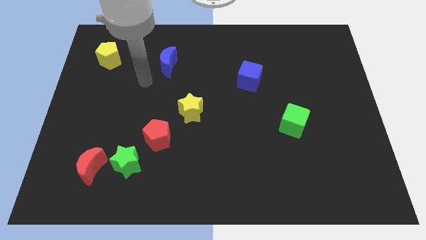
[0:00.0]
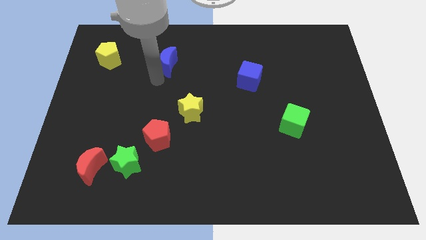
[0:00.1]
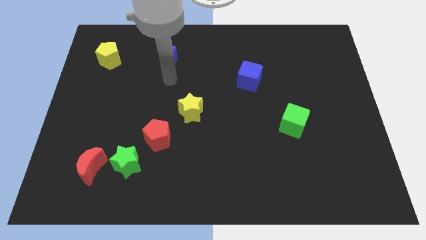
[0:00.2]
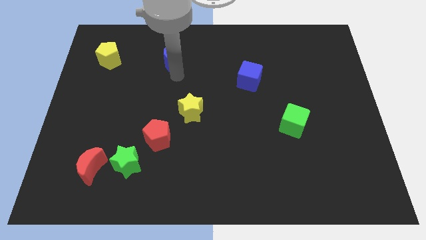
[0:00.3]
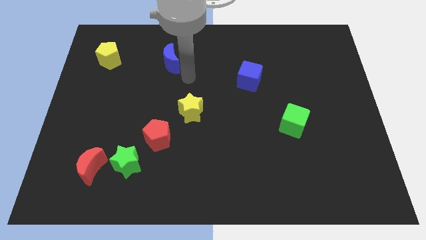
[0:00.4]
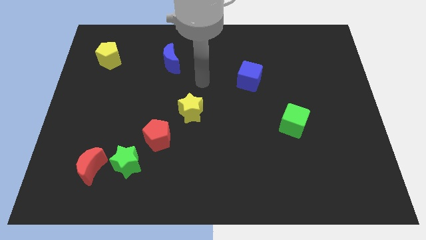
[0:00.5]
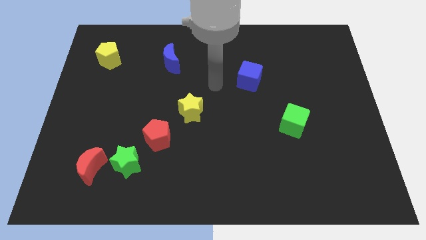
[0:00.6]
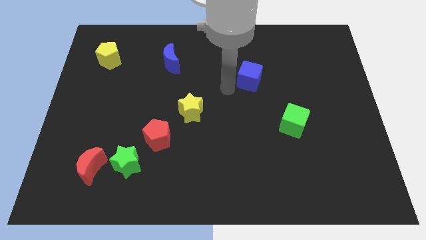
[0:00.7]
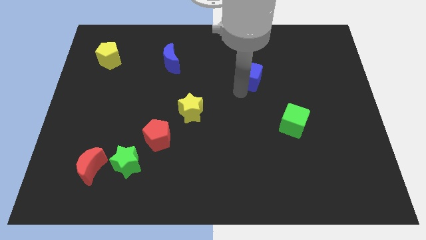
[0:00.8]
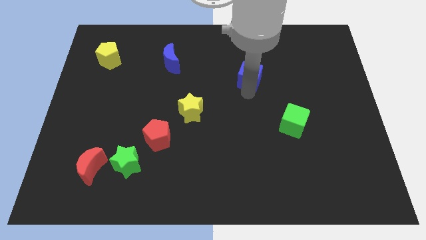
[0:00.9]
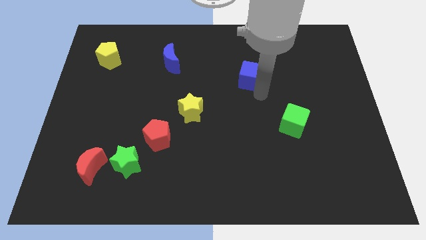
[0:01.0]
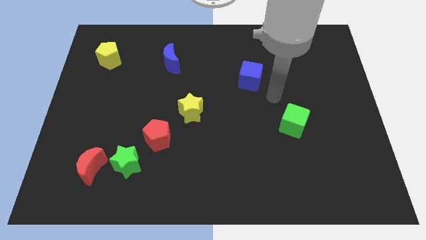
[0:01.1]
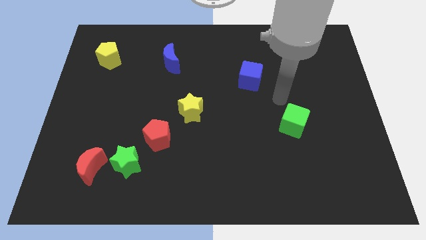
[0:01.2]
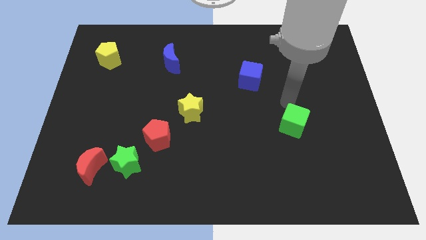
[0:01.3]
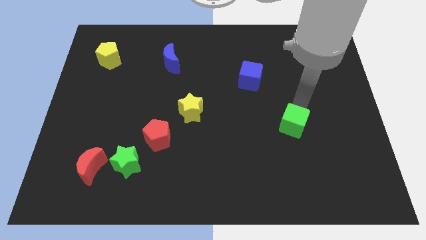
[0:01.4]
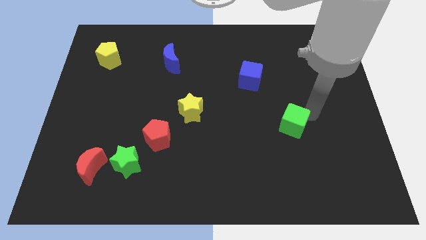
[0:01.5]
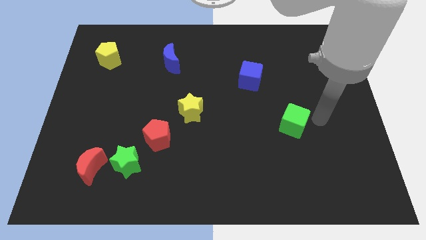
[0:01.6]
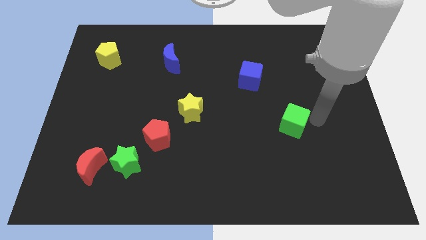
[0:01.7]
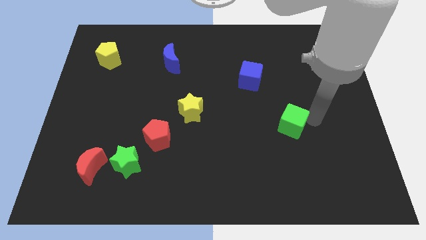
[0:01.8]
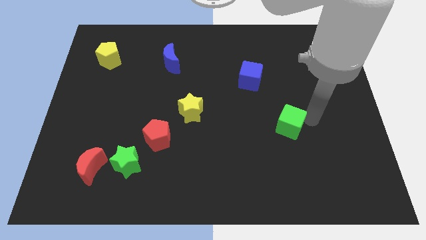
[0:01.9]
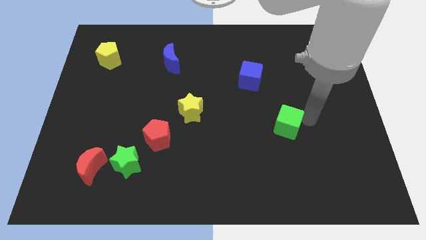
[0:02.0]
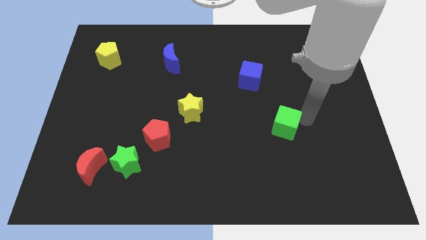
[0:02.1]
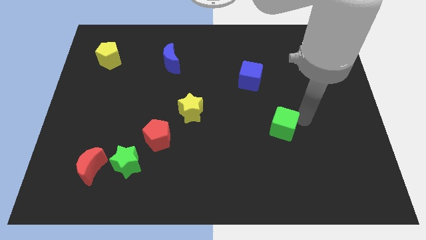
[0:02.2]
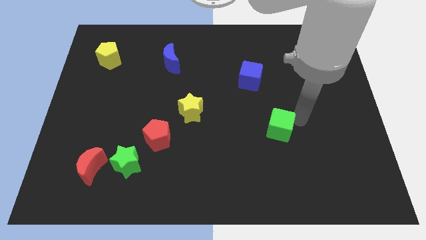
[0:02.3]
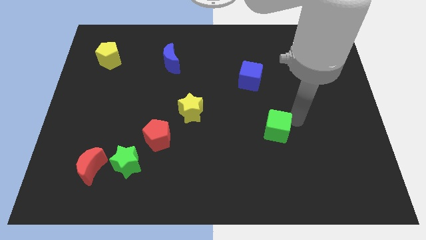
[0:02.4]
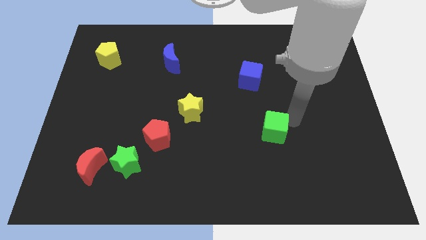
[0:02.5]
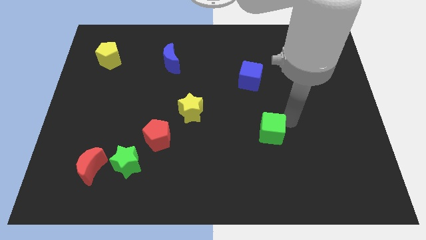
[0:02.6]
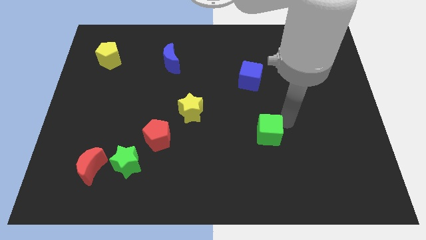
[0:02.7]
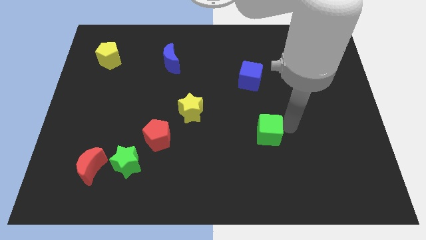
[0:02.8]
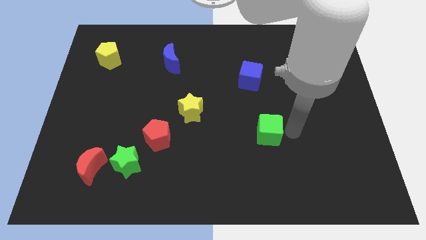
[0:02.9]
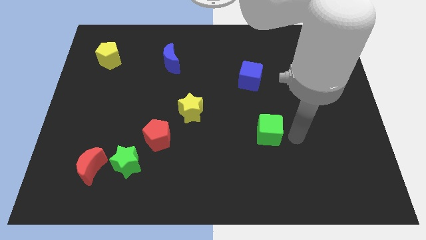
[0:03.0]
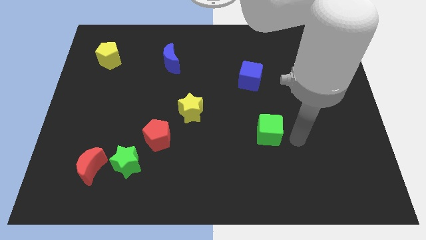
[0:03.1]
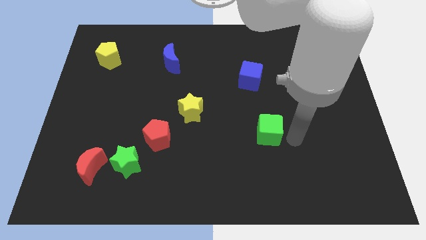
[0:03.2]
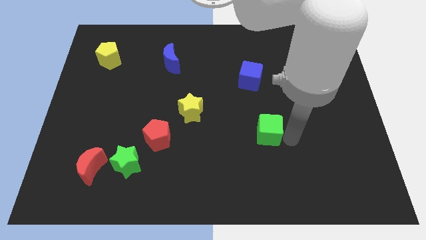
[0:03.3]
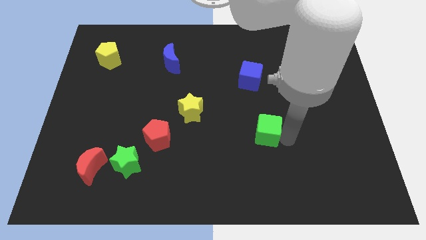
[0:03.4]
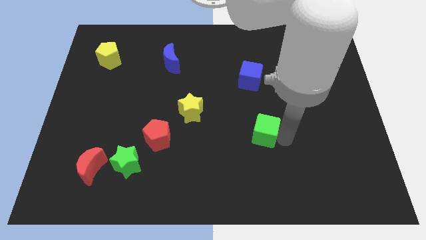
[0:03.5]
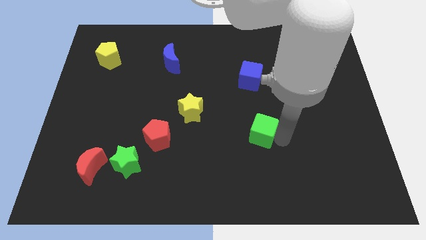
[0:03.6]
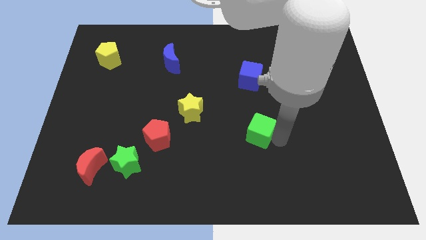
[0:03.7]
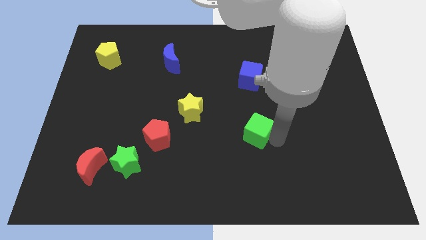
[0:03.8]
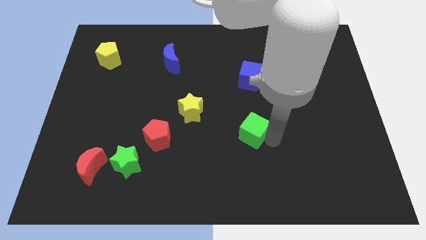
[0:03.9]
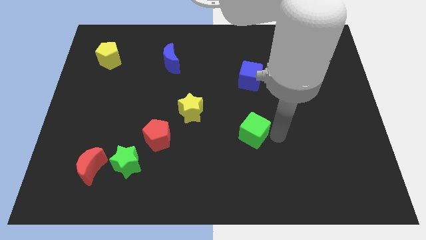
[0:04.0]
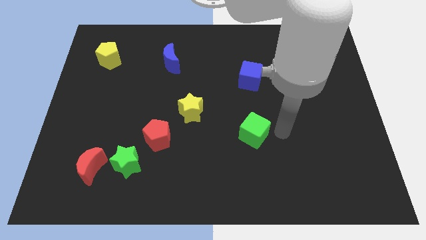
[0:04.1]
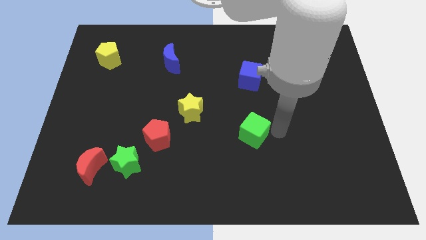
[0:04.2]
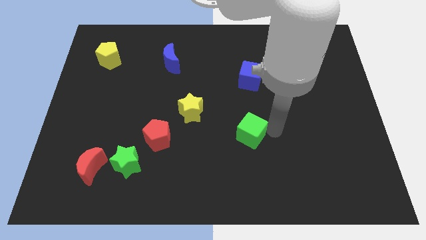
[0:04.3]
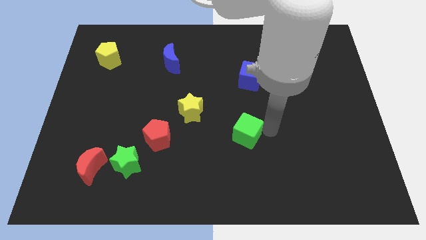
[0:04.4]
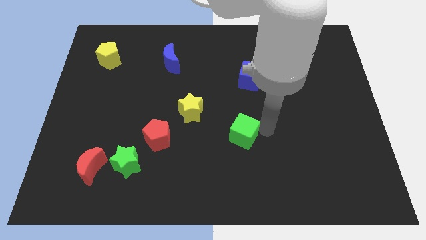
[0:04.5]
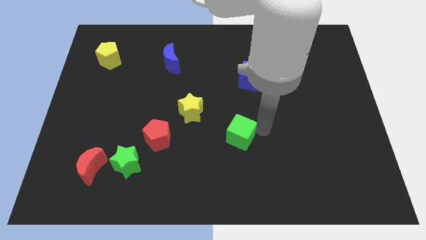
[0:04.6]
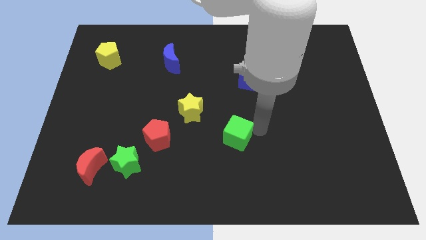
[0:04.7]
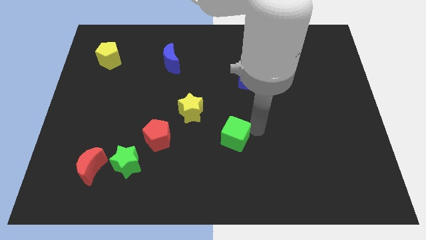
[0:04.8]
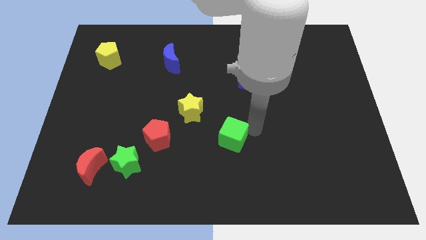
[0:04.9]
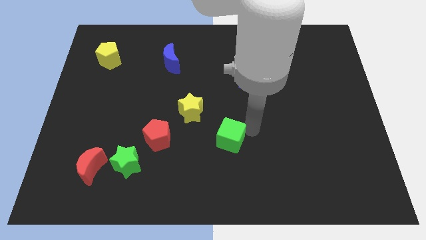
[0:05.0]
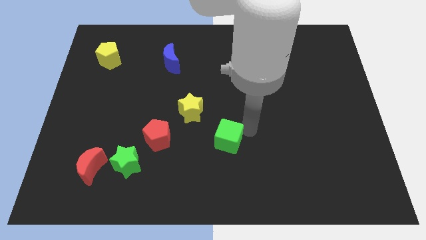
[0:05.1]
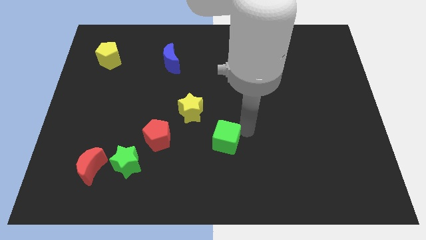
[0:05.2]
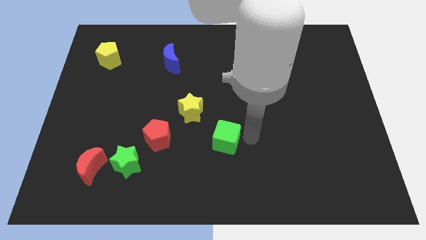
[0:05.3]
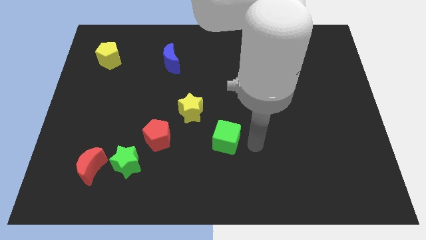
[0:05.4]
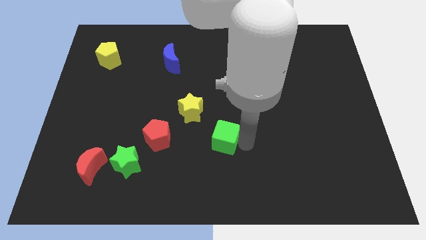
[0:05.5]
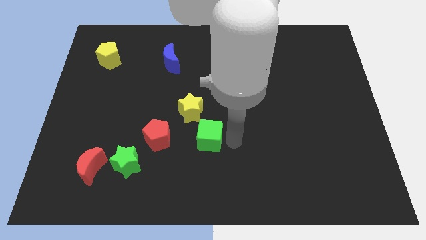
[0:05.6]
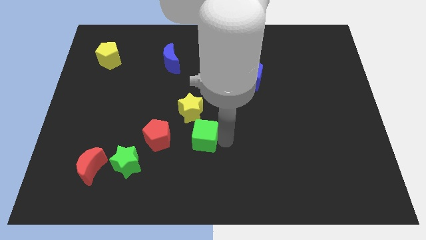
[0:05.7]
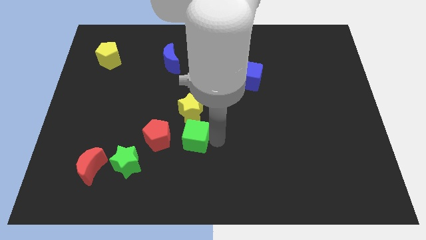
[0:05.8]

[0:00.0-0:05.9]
push the green cube to the left

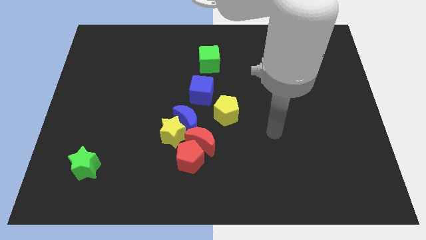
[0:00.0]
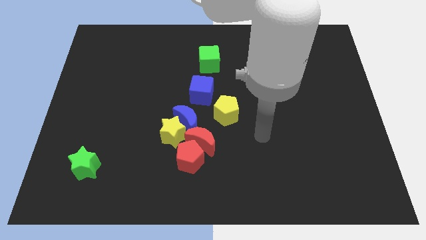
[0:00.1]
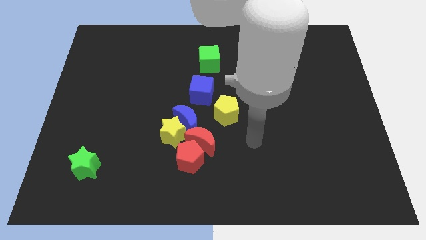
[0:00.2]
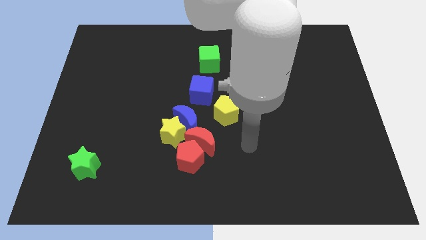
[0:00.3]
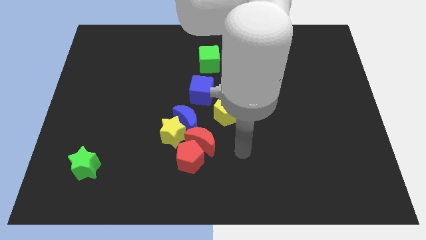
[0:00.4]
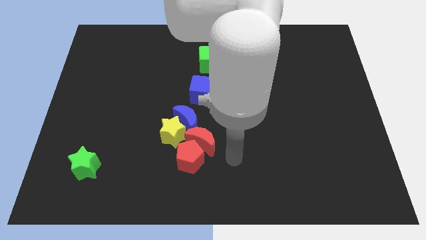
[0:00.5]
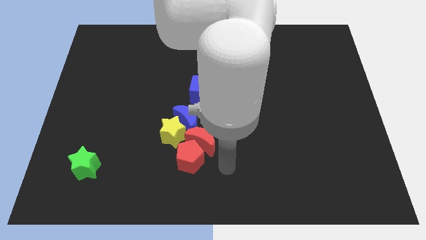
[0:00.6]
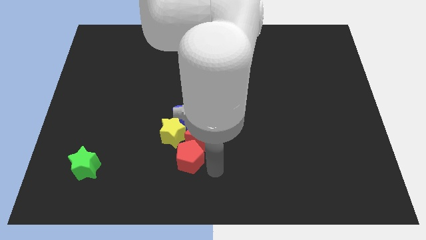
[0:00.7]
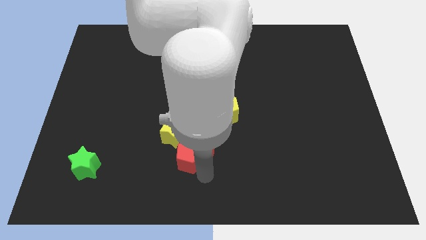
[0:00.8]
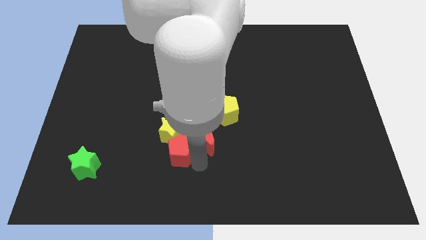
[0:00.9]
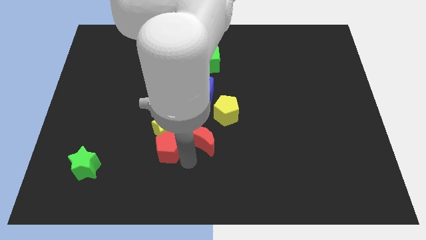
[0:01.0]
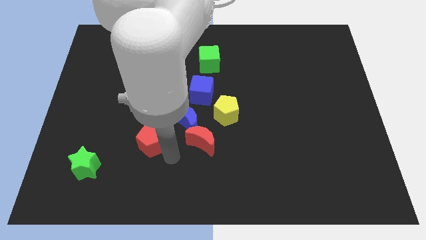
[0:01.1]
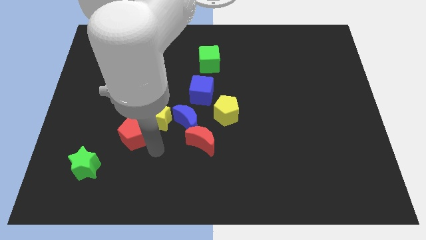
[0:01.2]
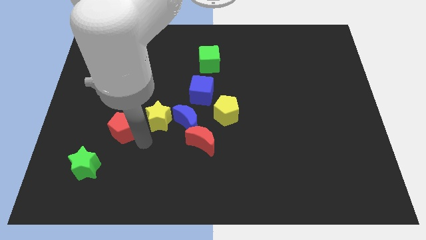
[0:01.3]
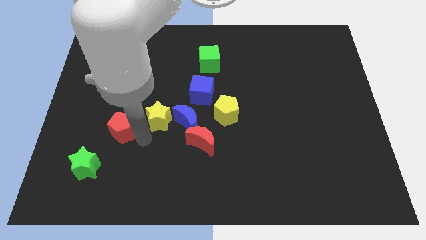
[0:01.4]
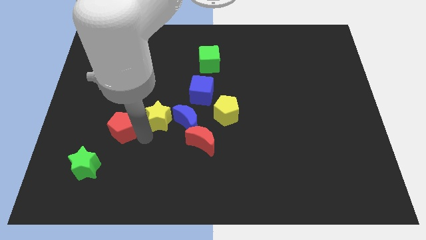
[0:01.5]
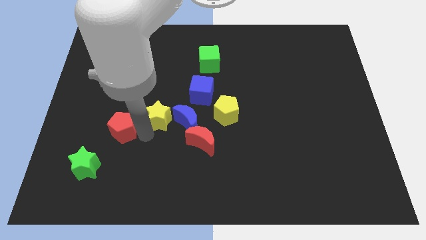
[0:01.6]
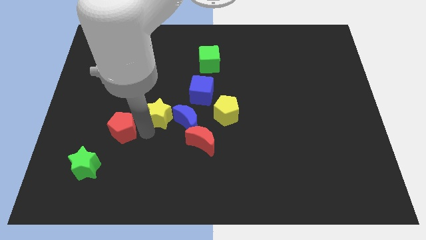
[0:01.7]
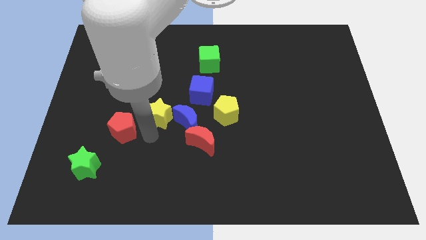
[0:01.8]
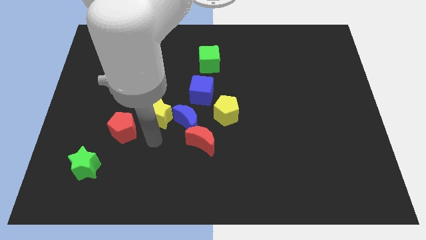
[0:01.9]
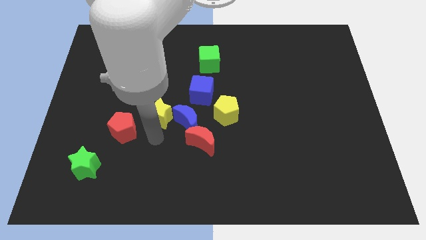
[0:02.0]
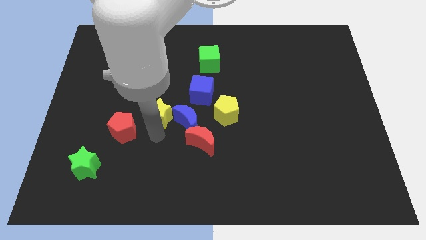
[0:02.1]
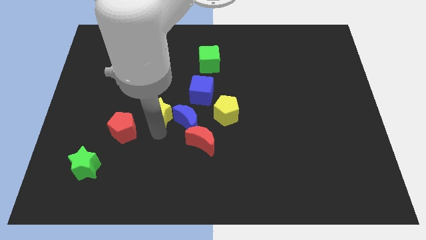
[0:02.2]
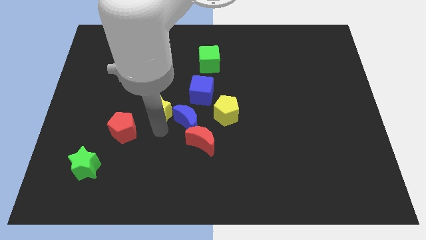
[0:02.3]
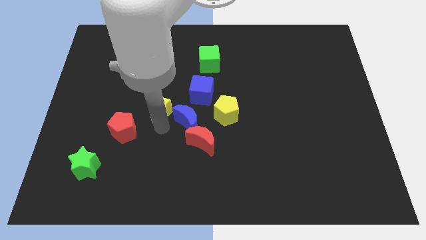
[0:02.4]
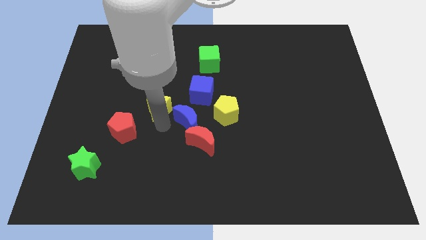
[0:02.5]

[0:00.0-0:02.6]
slightly move the yellow star upwards
